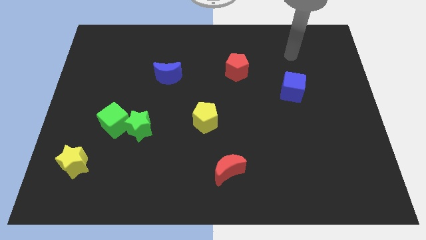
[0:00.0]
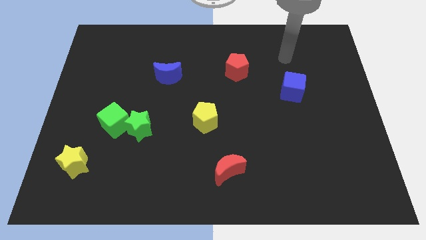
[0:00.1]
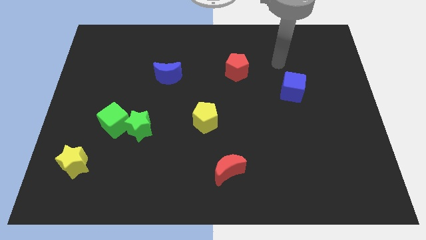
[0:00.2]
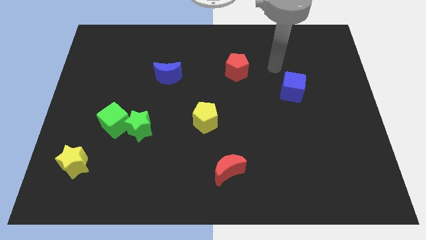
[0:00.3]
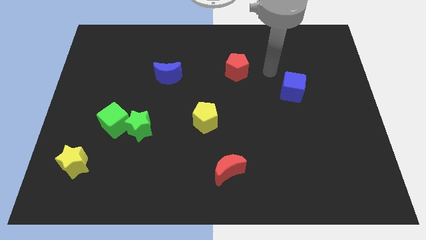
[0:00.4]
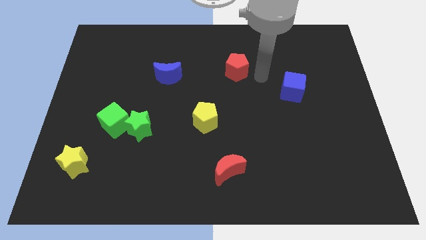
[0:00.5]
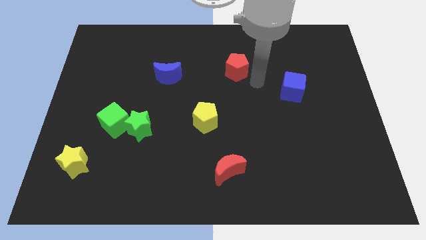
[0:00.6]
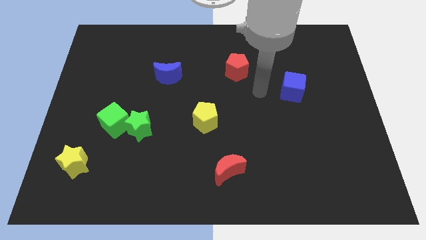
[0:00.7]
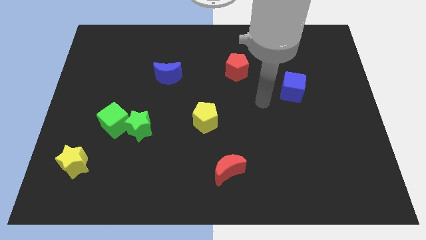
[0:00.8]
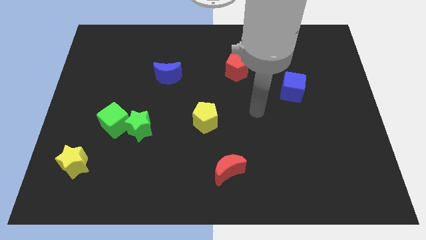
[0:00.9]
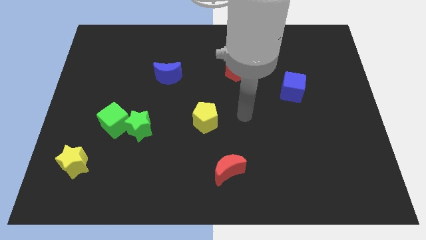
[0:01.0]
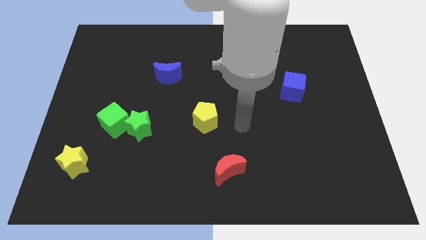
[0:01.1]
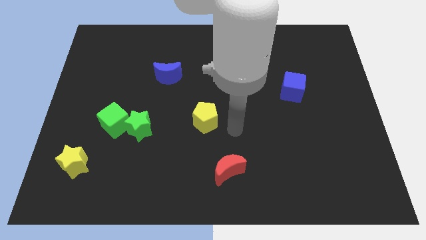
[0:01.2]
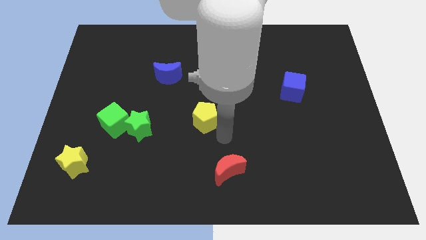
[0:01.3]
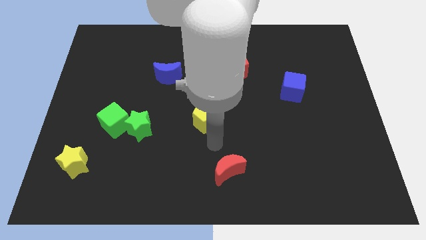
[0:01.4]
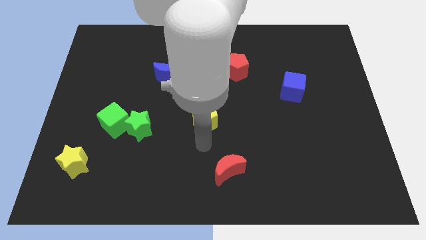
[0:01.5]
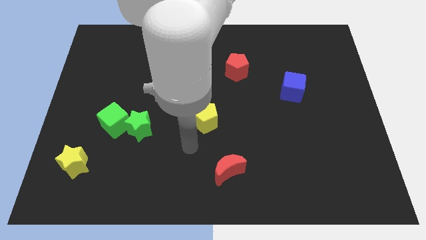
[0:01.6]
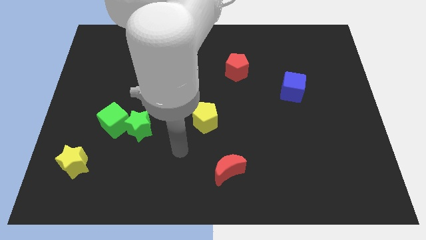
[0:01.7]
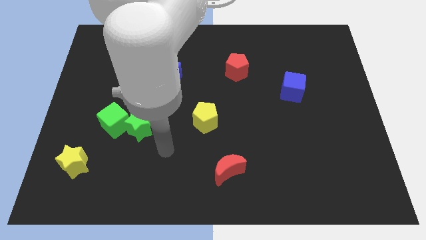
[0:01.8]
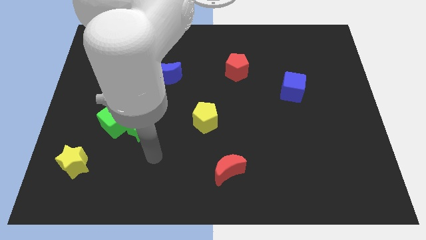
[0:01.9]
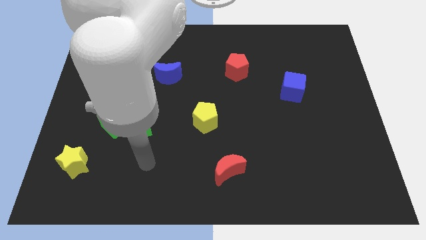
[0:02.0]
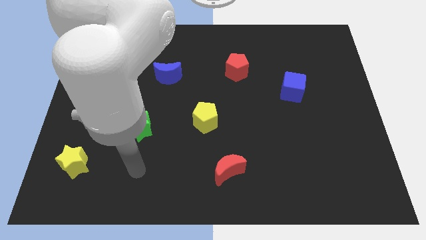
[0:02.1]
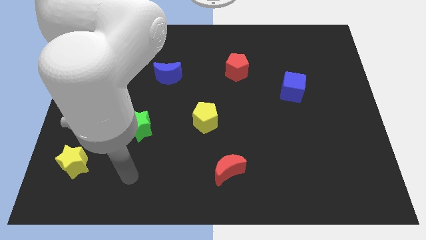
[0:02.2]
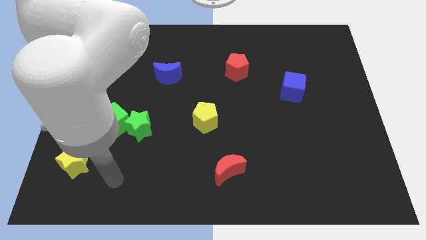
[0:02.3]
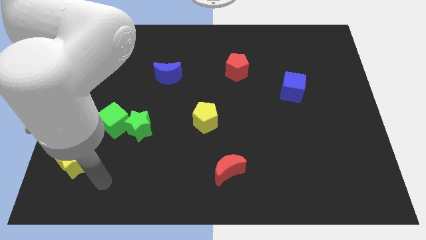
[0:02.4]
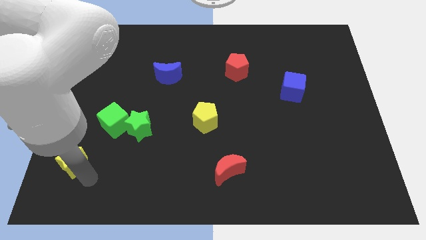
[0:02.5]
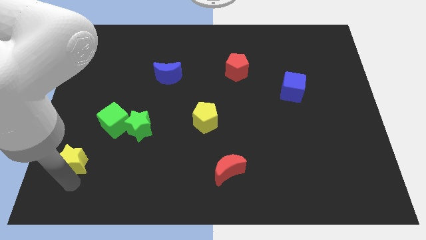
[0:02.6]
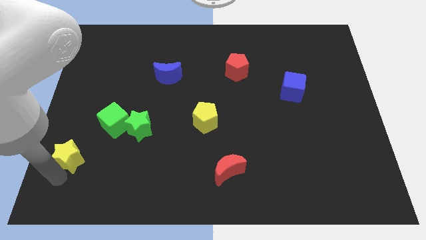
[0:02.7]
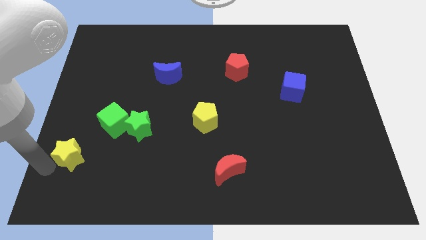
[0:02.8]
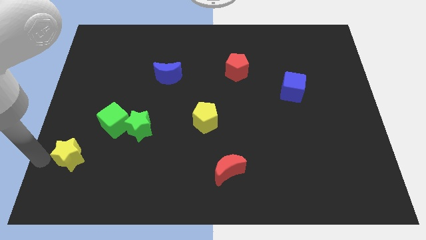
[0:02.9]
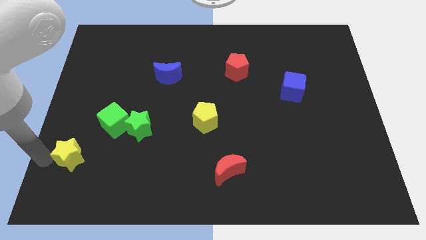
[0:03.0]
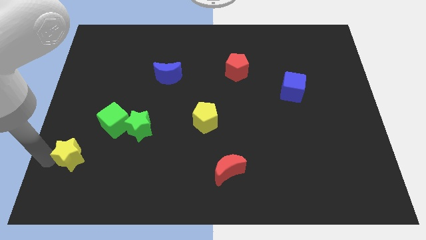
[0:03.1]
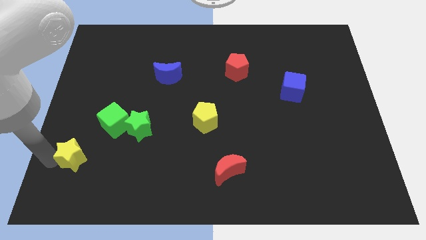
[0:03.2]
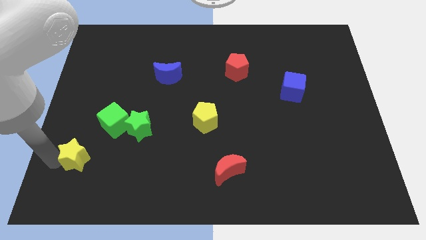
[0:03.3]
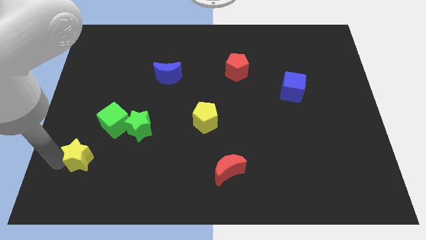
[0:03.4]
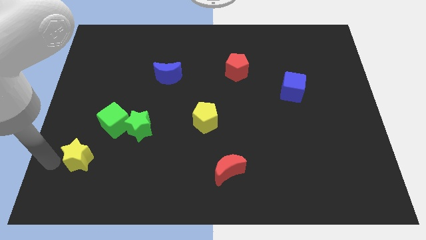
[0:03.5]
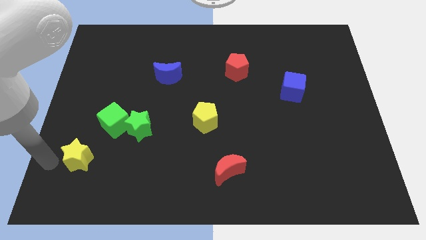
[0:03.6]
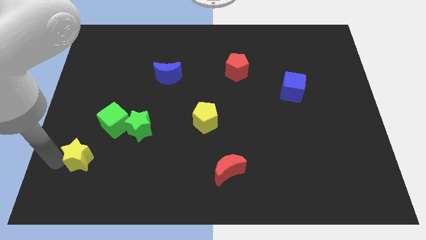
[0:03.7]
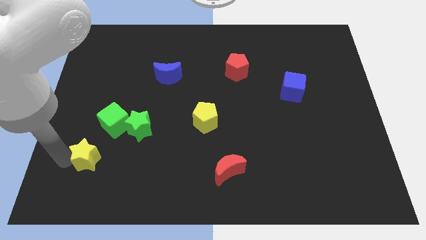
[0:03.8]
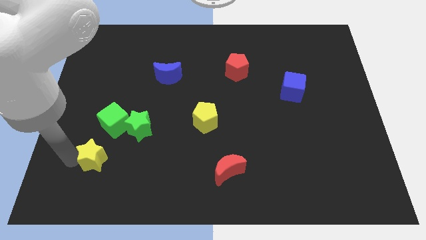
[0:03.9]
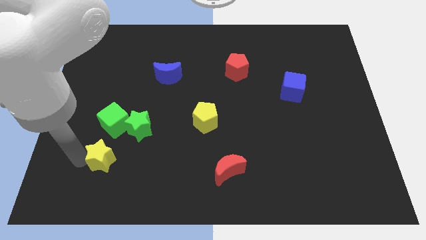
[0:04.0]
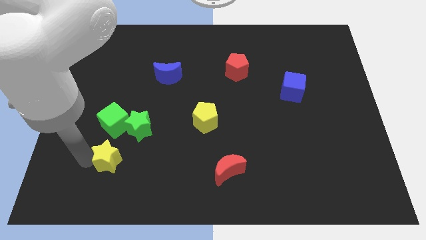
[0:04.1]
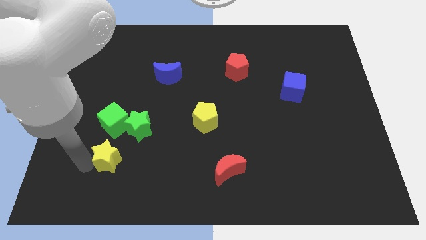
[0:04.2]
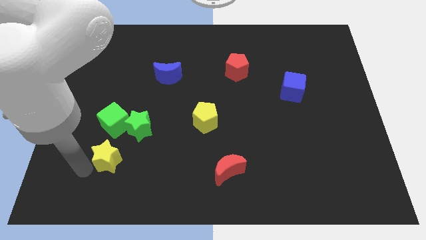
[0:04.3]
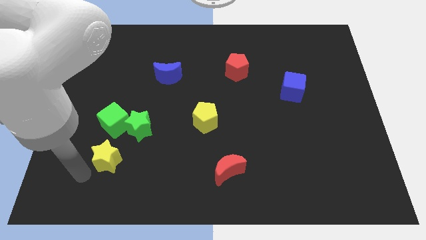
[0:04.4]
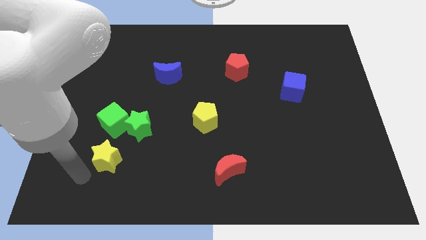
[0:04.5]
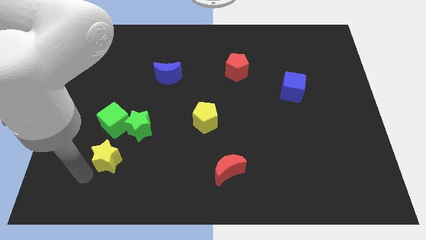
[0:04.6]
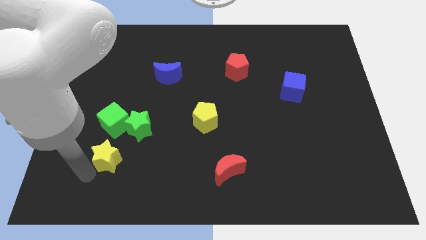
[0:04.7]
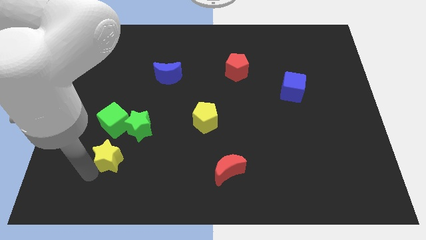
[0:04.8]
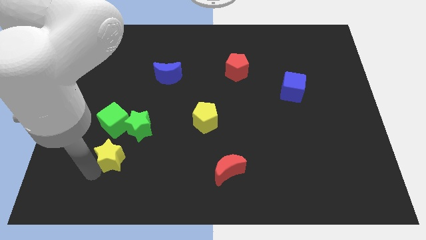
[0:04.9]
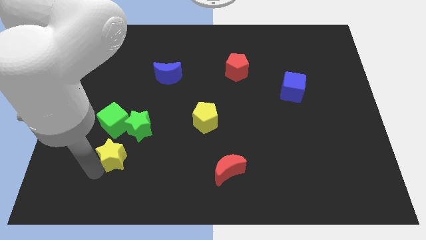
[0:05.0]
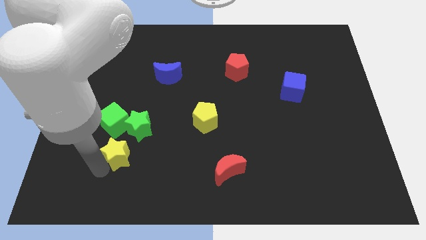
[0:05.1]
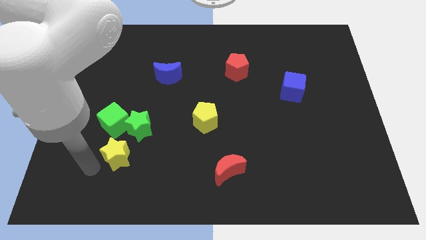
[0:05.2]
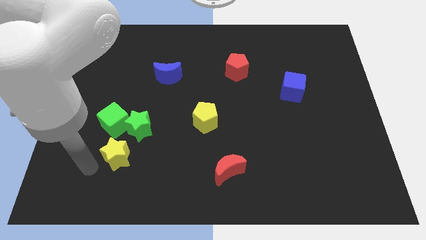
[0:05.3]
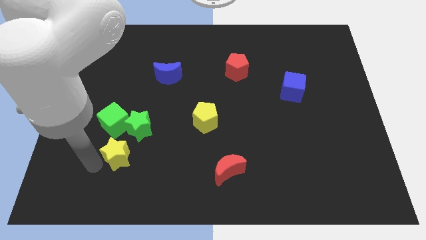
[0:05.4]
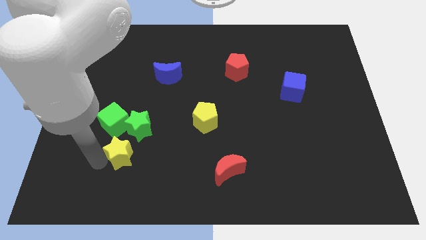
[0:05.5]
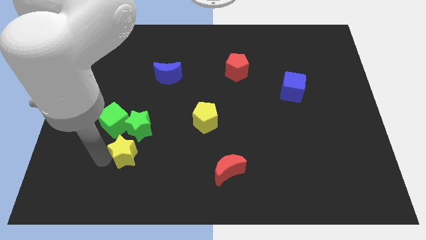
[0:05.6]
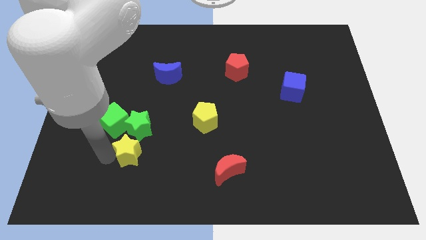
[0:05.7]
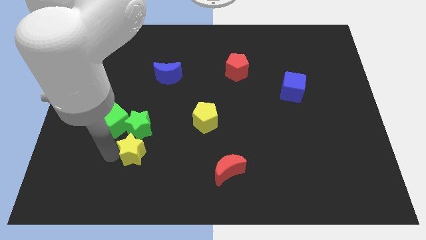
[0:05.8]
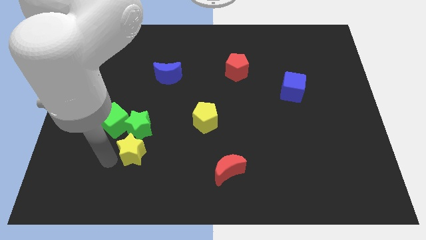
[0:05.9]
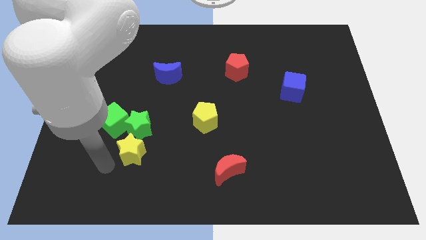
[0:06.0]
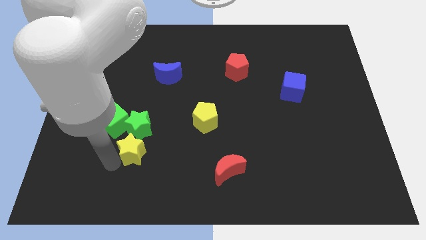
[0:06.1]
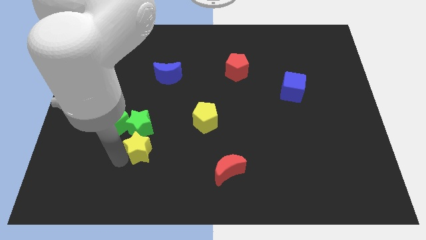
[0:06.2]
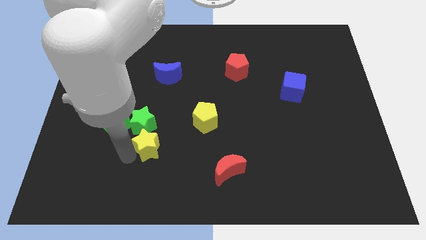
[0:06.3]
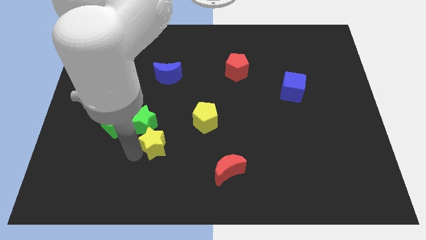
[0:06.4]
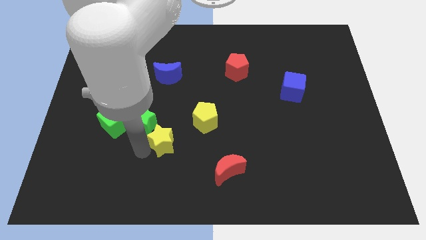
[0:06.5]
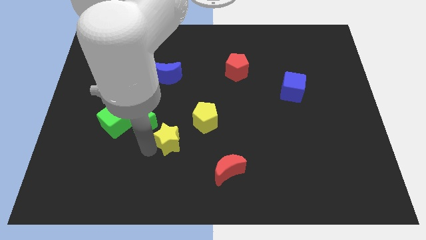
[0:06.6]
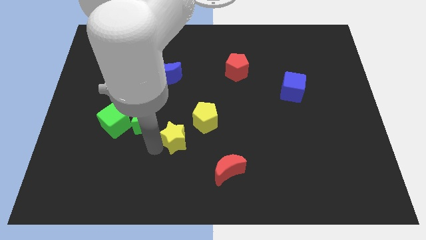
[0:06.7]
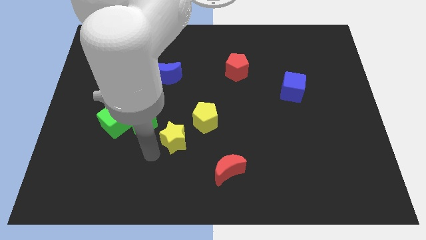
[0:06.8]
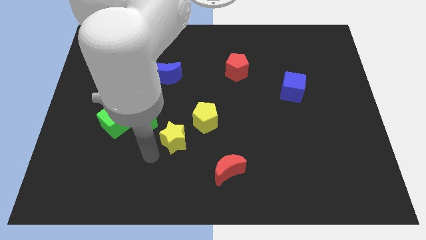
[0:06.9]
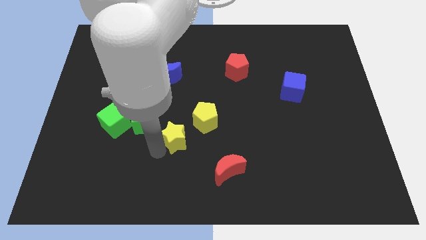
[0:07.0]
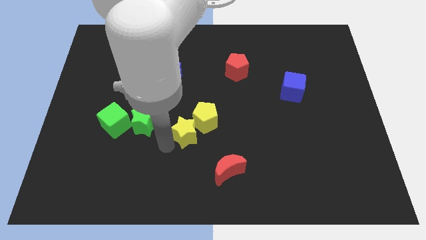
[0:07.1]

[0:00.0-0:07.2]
put the yellow star next to the yellow pentagon
